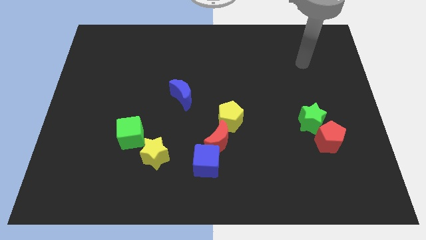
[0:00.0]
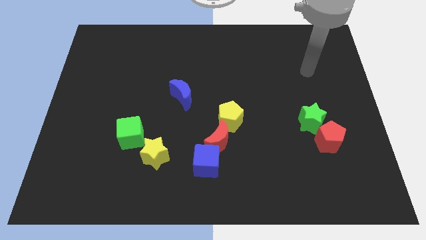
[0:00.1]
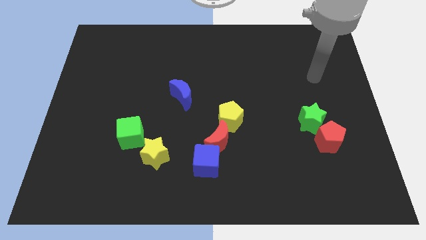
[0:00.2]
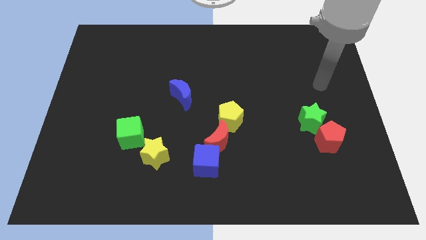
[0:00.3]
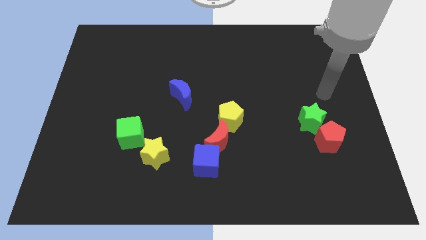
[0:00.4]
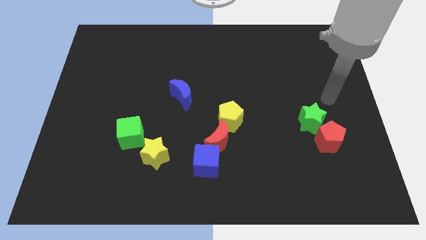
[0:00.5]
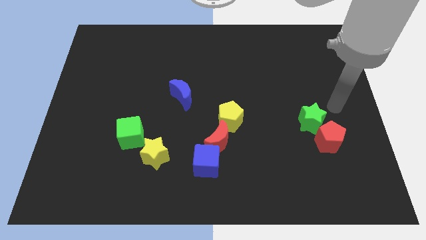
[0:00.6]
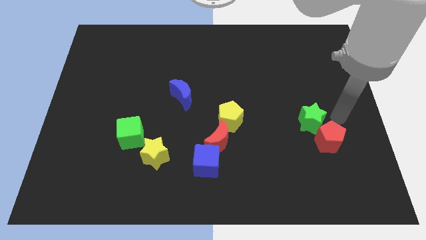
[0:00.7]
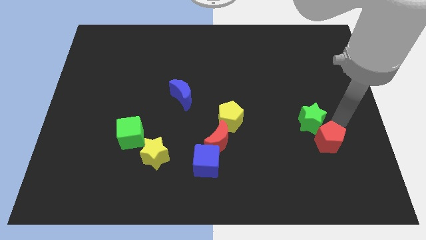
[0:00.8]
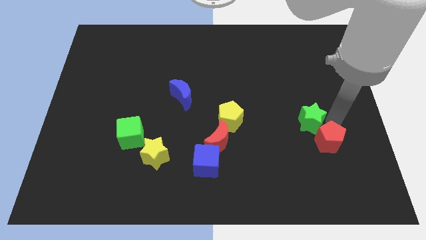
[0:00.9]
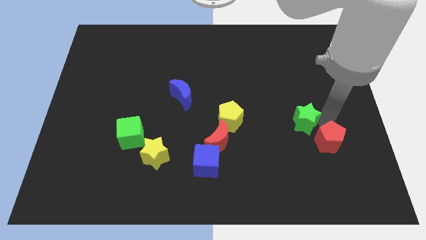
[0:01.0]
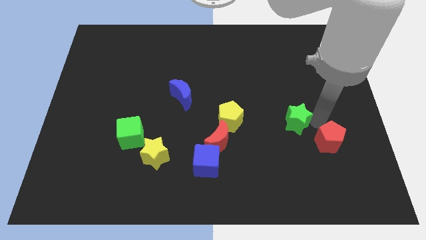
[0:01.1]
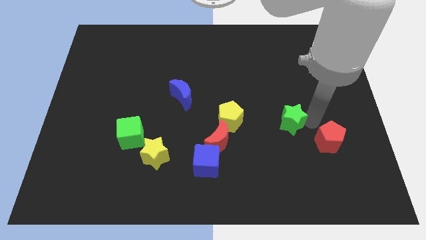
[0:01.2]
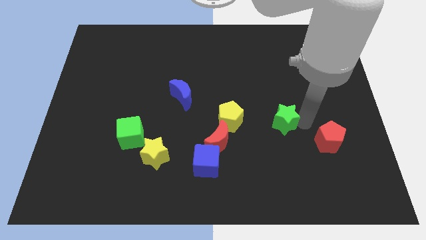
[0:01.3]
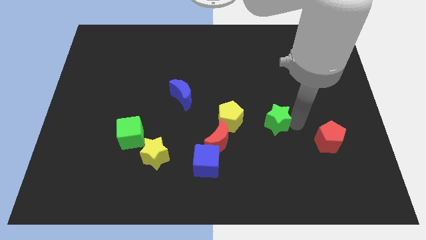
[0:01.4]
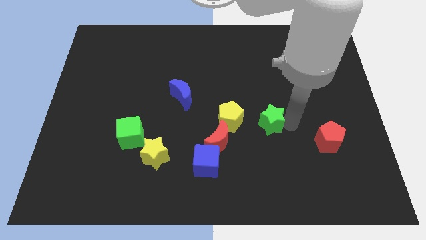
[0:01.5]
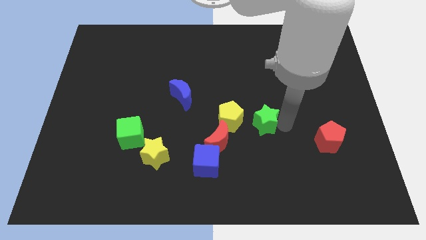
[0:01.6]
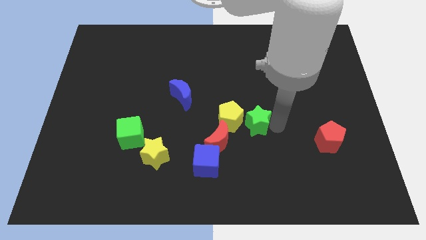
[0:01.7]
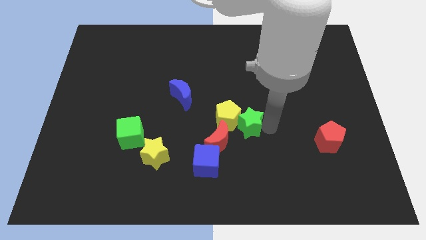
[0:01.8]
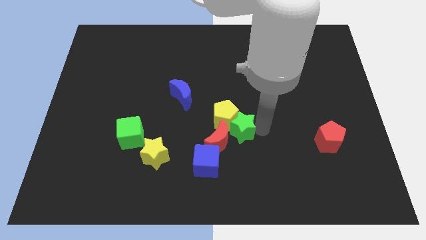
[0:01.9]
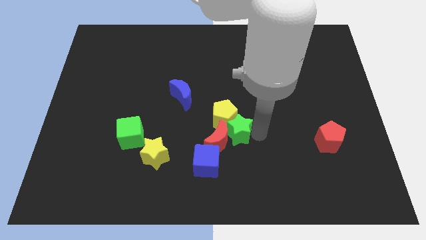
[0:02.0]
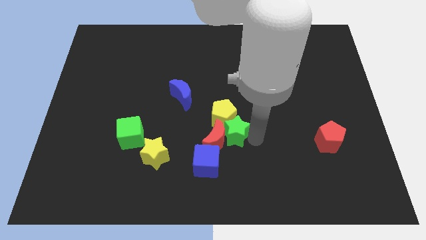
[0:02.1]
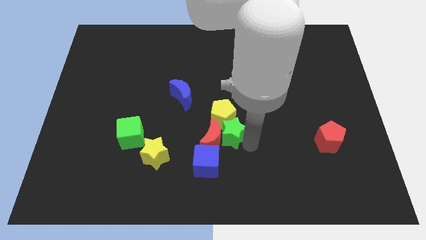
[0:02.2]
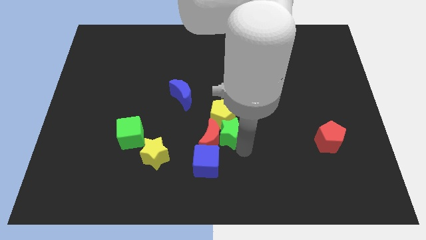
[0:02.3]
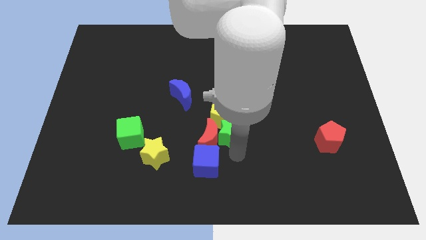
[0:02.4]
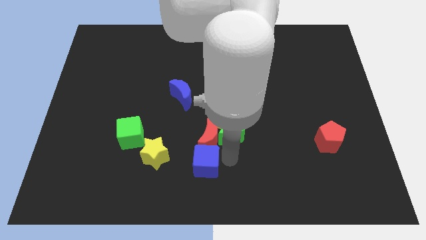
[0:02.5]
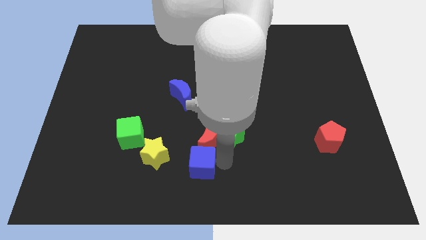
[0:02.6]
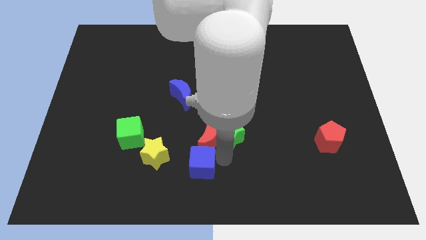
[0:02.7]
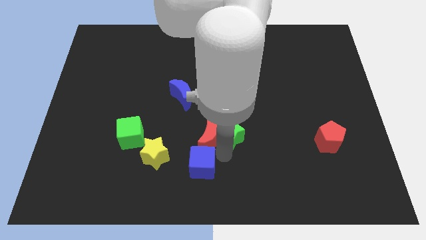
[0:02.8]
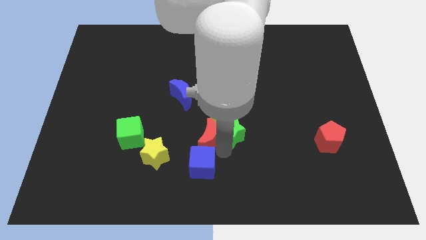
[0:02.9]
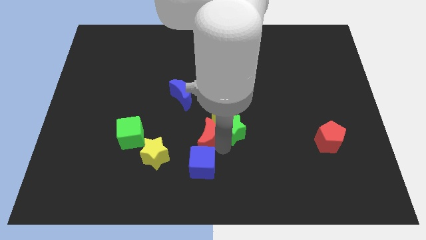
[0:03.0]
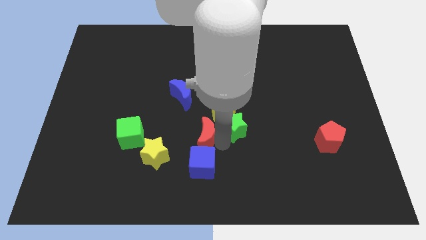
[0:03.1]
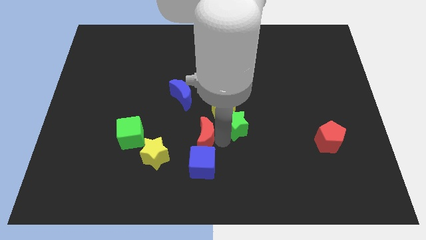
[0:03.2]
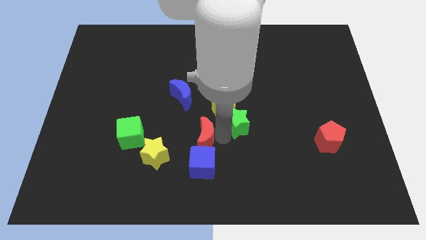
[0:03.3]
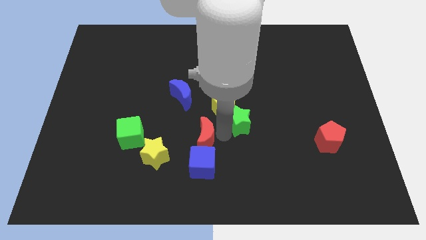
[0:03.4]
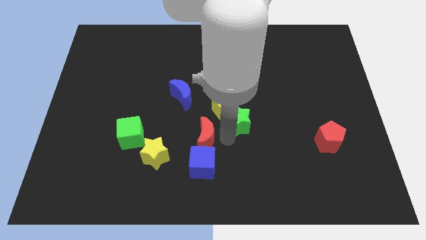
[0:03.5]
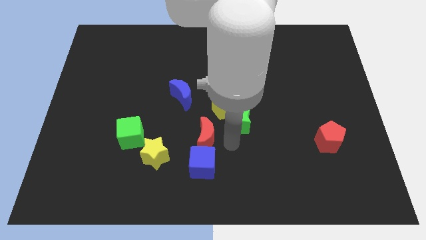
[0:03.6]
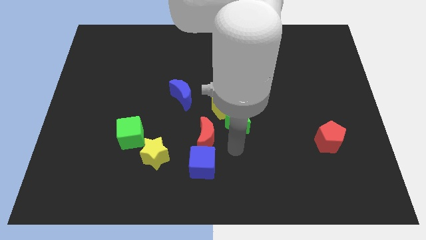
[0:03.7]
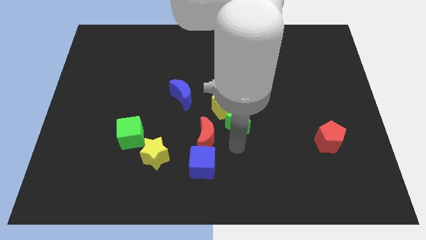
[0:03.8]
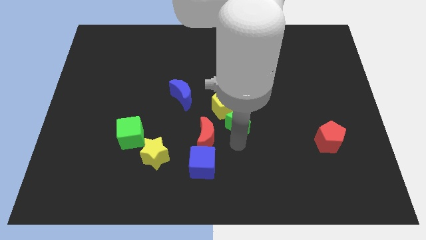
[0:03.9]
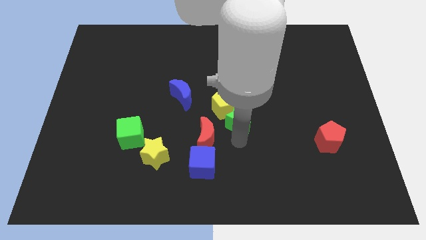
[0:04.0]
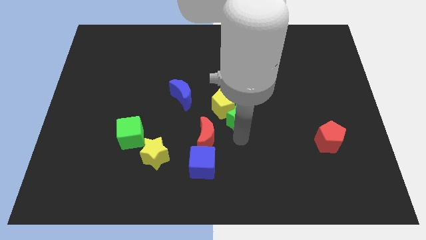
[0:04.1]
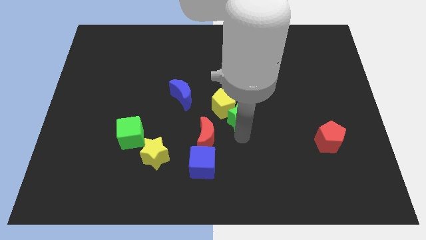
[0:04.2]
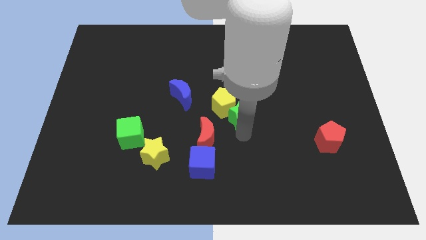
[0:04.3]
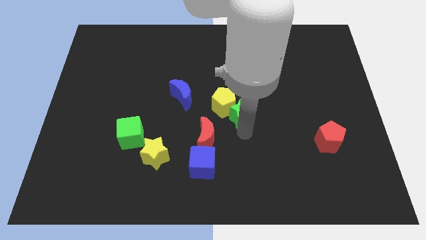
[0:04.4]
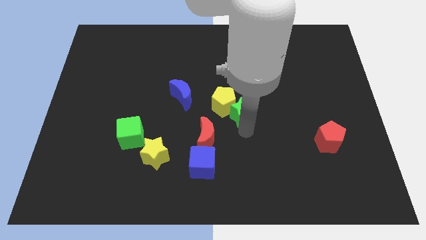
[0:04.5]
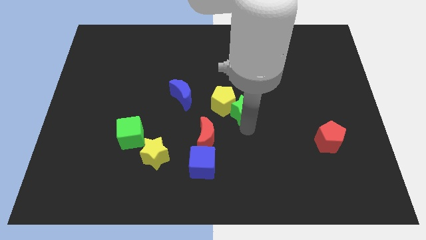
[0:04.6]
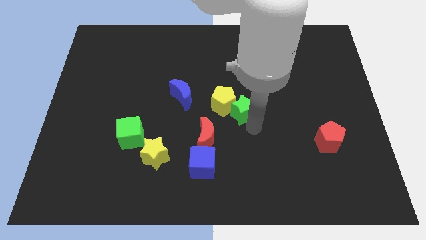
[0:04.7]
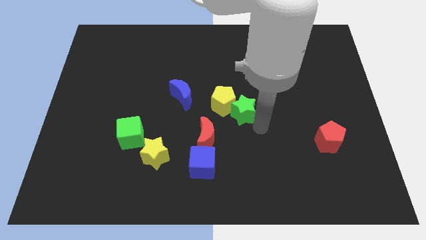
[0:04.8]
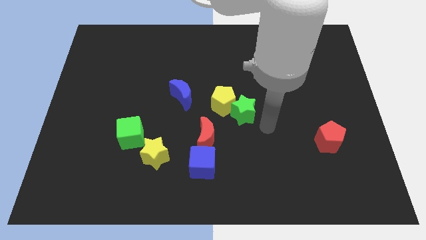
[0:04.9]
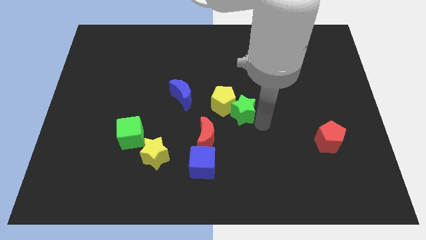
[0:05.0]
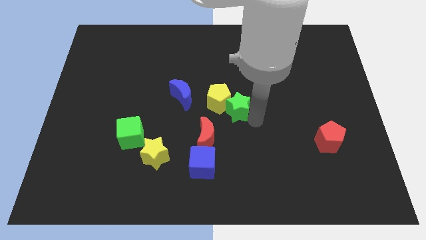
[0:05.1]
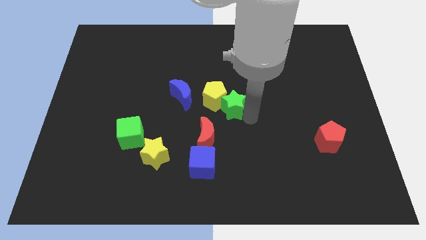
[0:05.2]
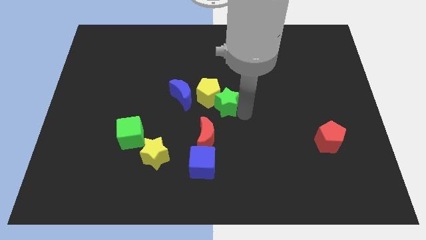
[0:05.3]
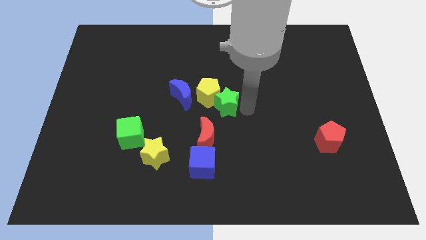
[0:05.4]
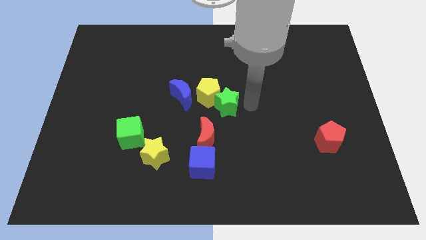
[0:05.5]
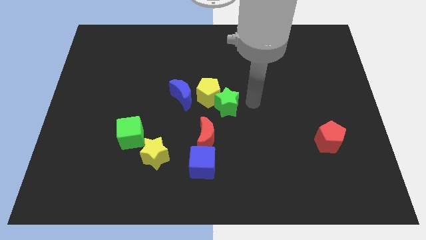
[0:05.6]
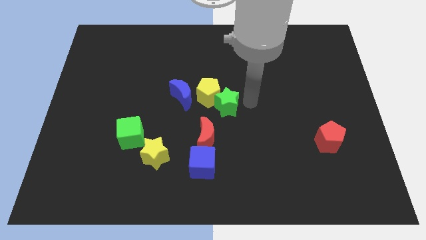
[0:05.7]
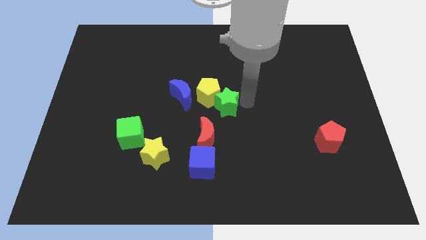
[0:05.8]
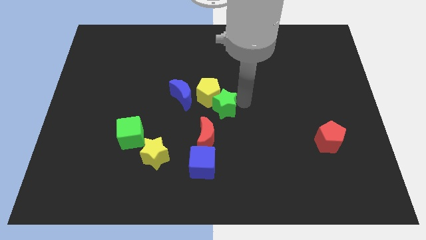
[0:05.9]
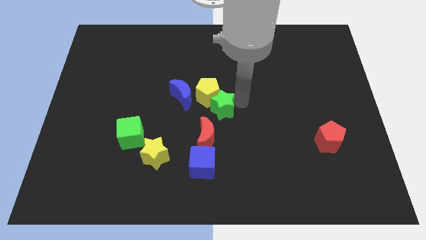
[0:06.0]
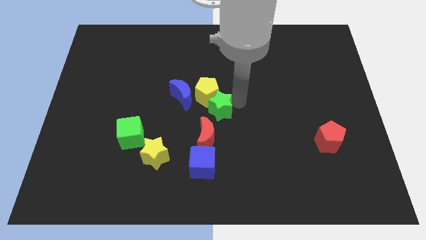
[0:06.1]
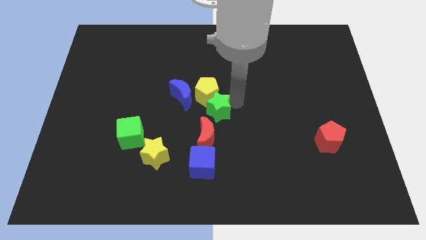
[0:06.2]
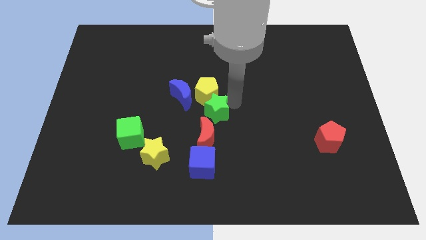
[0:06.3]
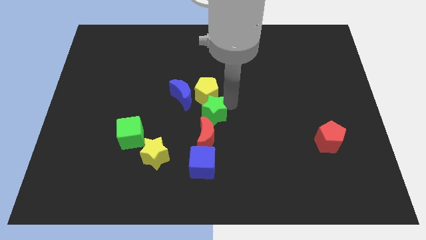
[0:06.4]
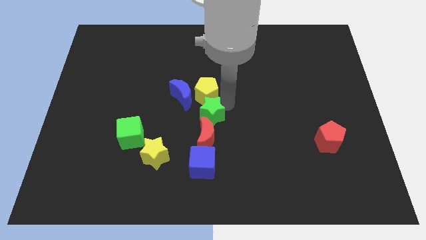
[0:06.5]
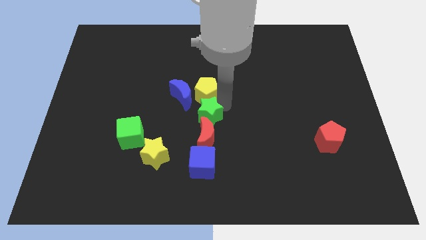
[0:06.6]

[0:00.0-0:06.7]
put the green star to the top left side of the red moon
